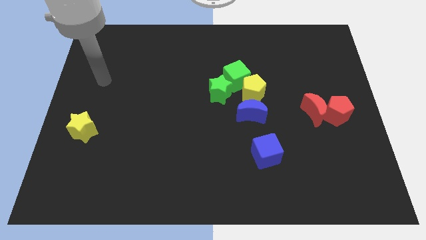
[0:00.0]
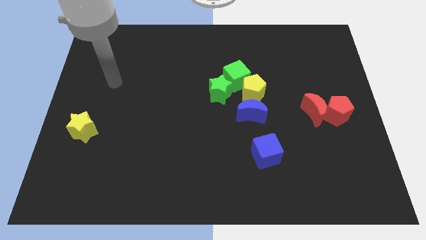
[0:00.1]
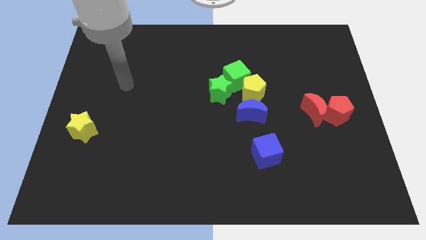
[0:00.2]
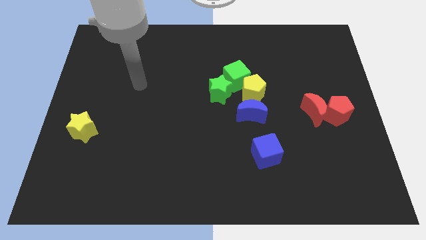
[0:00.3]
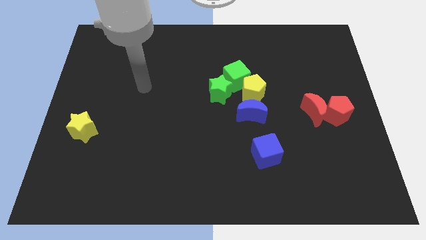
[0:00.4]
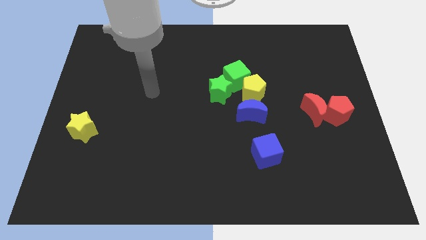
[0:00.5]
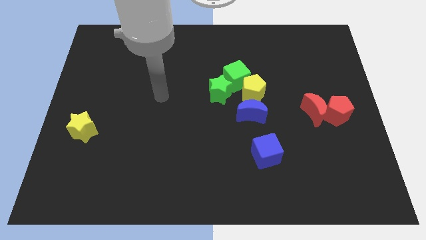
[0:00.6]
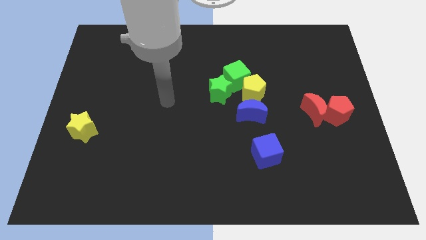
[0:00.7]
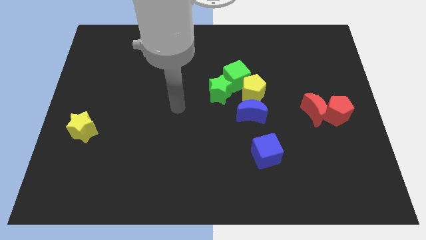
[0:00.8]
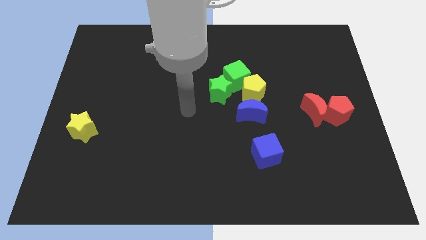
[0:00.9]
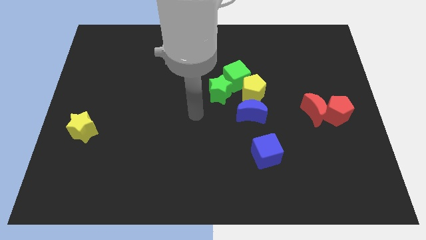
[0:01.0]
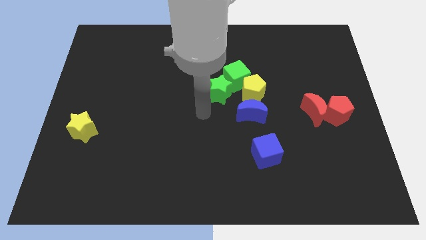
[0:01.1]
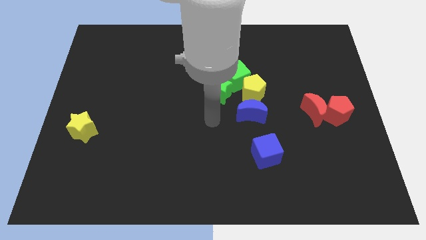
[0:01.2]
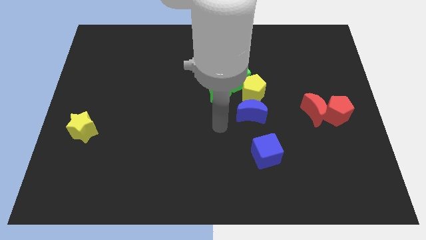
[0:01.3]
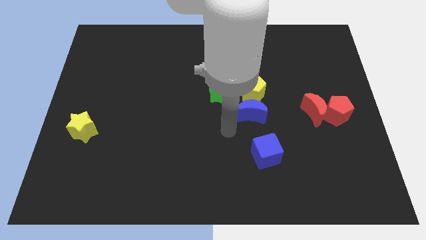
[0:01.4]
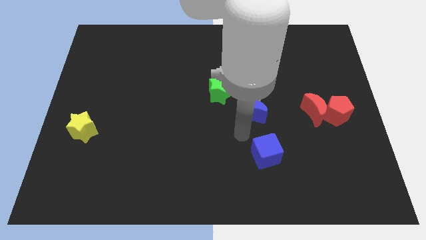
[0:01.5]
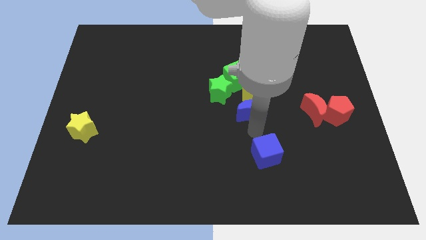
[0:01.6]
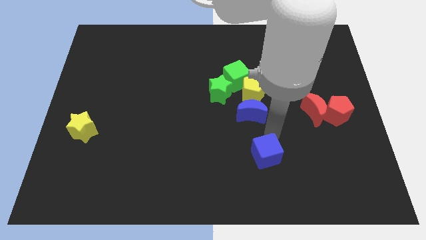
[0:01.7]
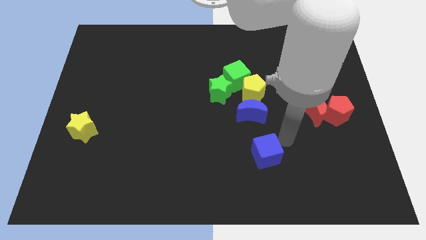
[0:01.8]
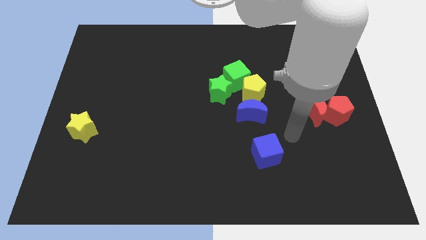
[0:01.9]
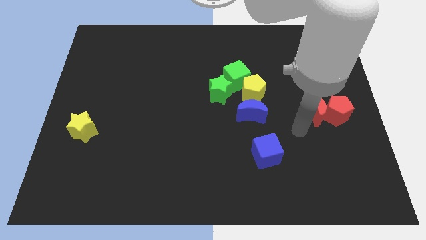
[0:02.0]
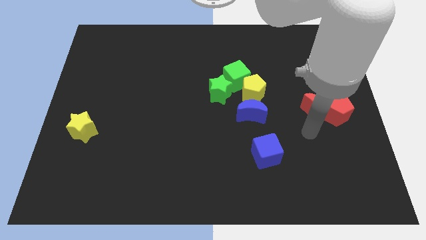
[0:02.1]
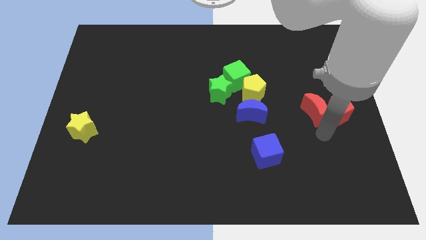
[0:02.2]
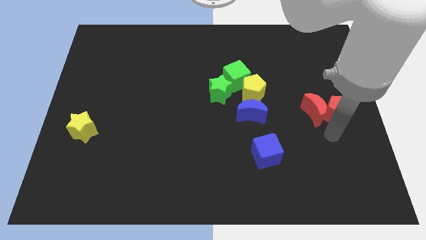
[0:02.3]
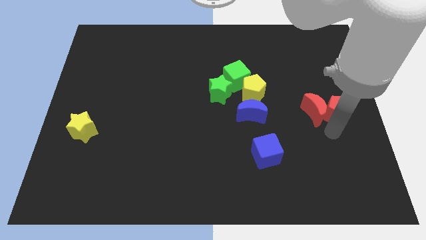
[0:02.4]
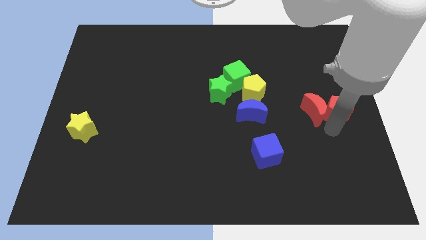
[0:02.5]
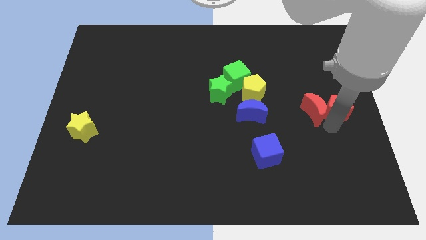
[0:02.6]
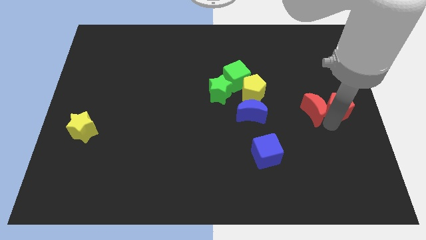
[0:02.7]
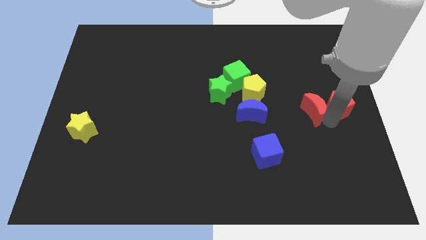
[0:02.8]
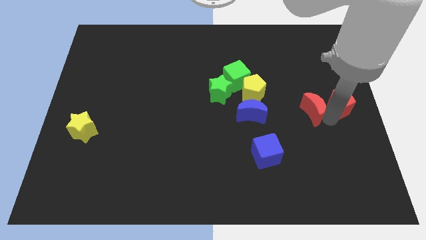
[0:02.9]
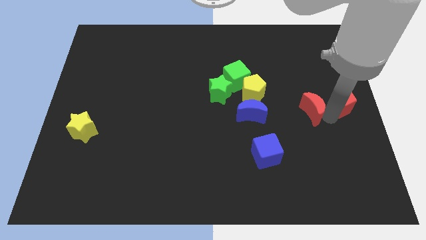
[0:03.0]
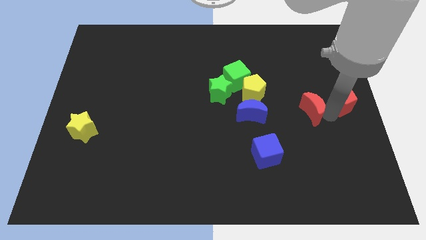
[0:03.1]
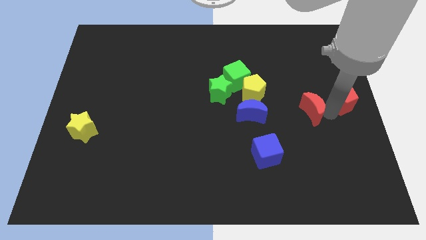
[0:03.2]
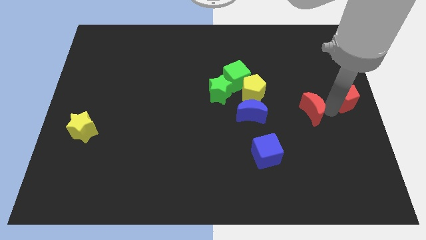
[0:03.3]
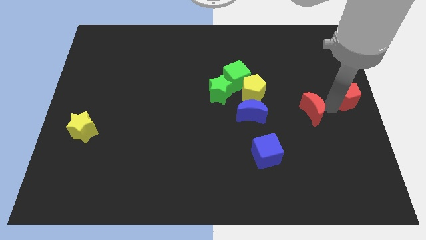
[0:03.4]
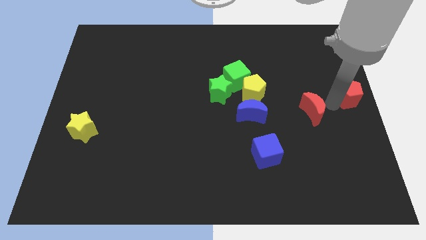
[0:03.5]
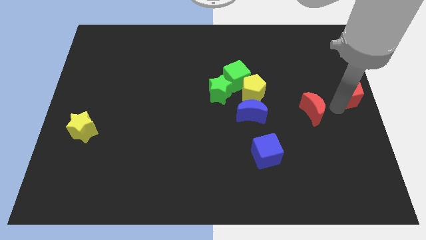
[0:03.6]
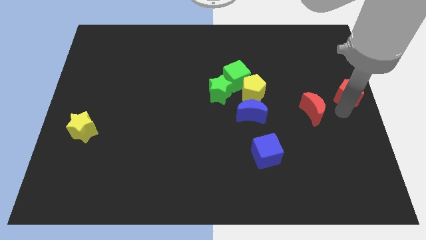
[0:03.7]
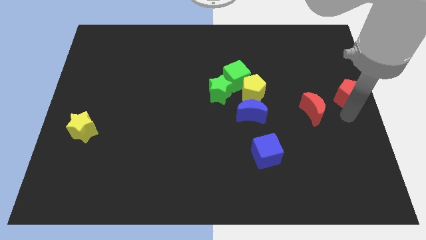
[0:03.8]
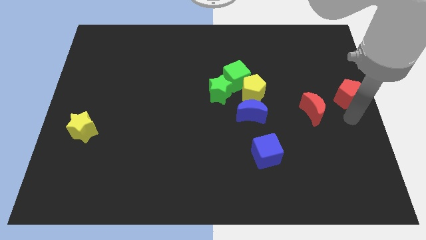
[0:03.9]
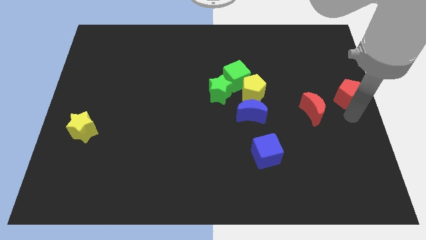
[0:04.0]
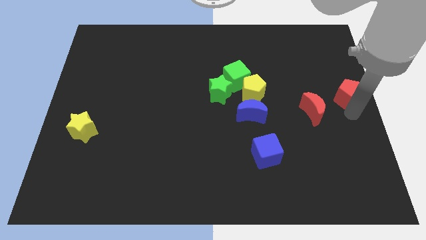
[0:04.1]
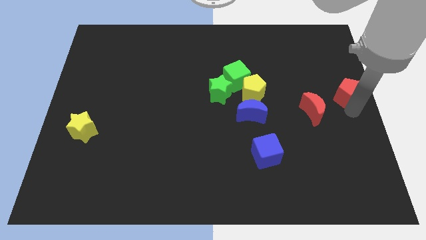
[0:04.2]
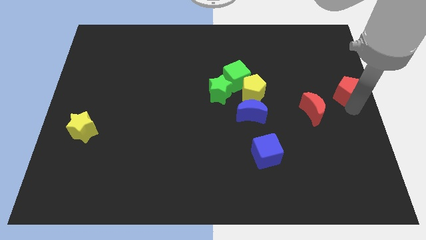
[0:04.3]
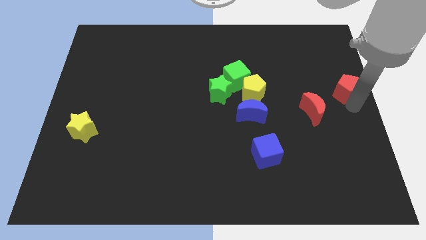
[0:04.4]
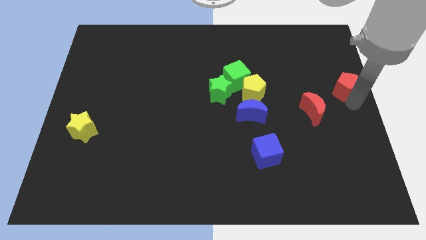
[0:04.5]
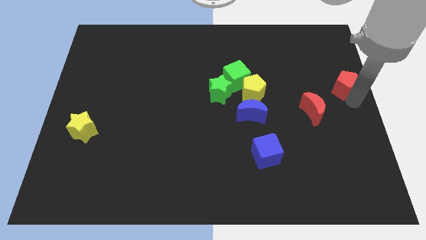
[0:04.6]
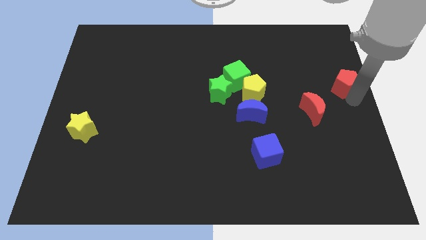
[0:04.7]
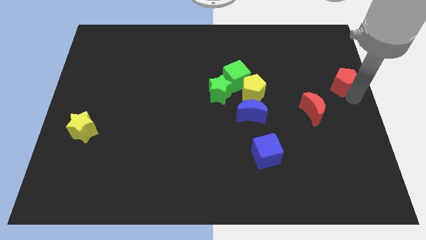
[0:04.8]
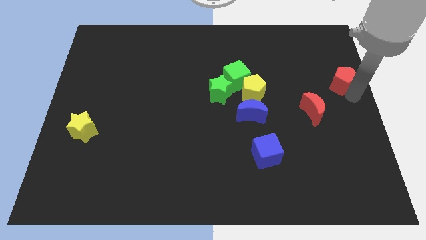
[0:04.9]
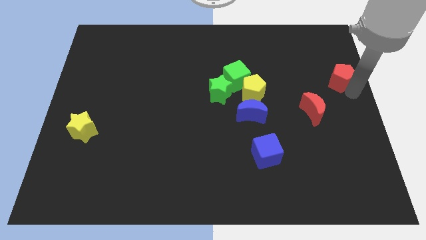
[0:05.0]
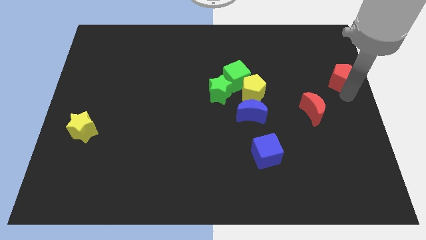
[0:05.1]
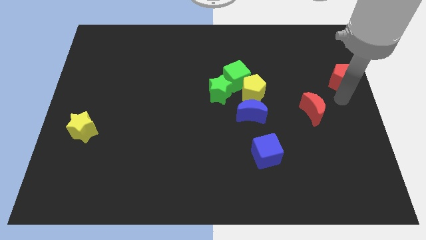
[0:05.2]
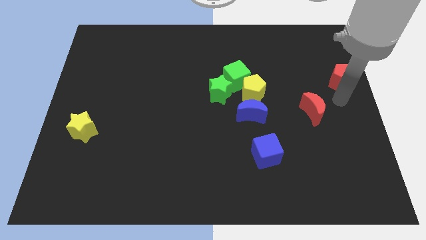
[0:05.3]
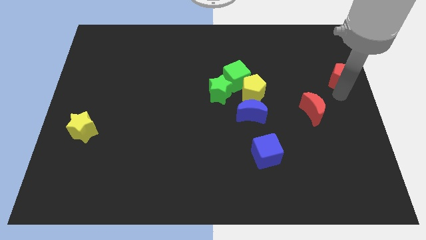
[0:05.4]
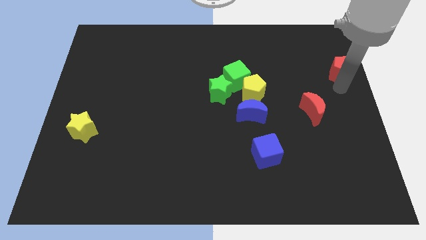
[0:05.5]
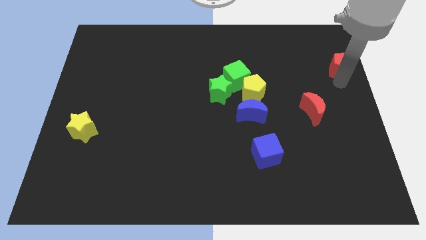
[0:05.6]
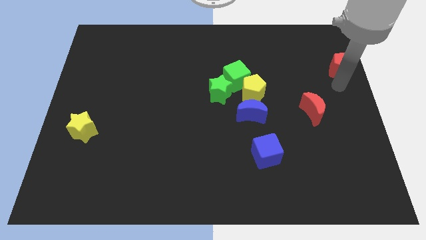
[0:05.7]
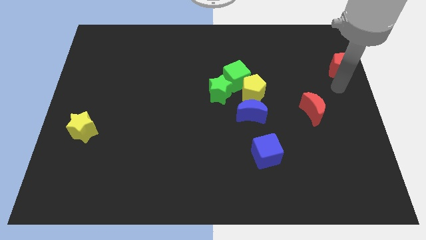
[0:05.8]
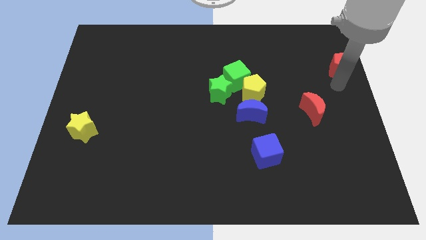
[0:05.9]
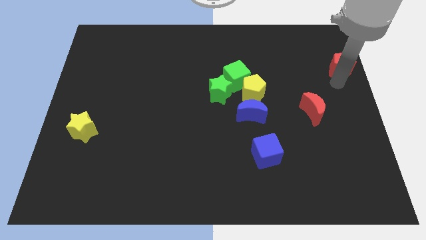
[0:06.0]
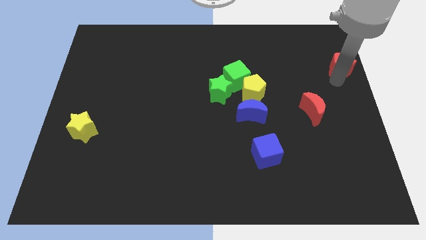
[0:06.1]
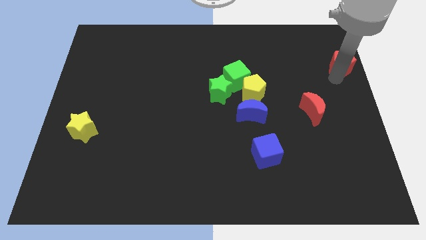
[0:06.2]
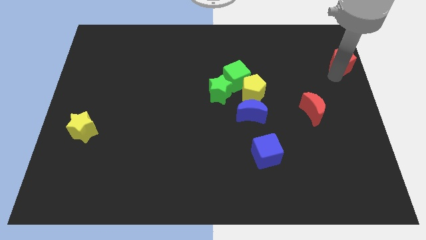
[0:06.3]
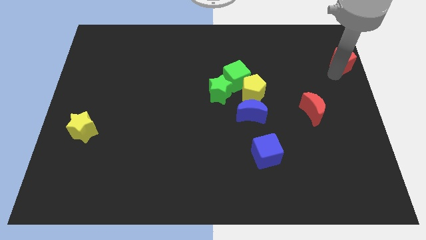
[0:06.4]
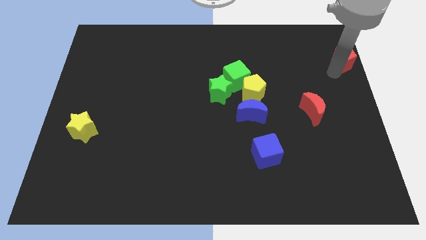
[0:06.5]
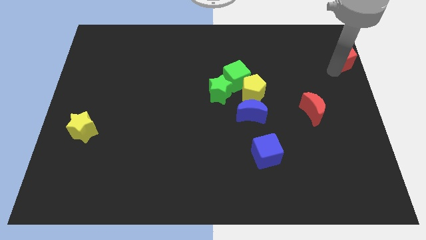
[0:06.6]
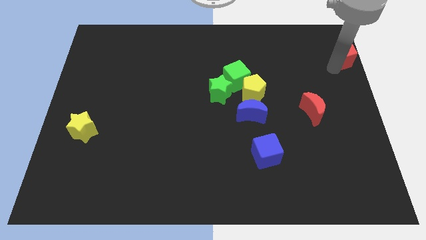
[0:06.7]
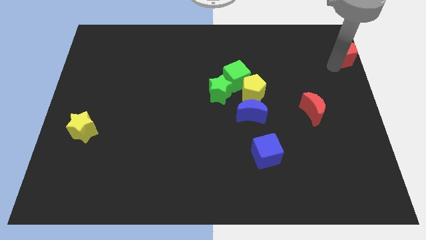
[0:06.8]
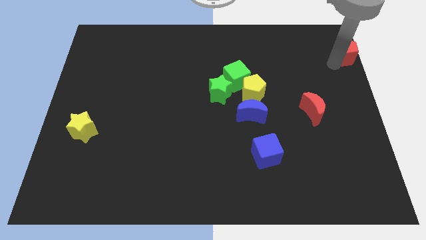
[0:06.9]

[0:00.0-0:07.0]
put the red pentagon to the top right
